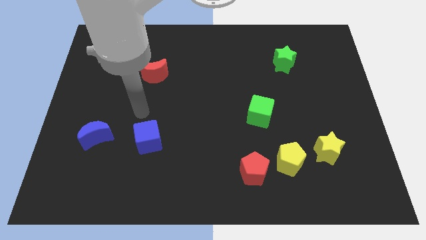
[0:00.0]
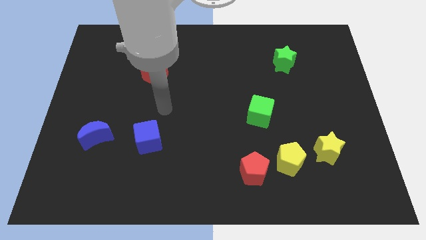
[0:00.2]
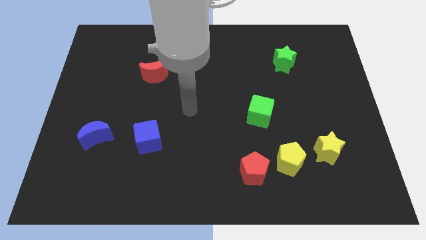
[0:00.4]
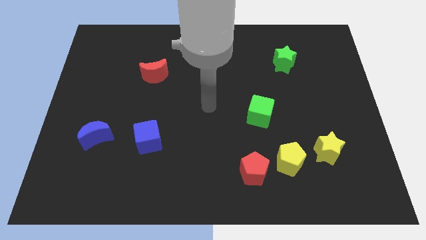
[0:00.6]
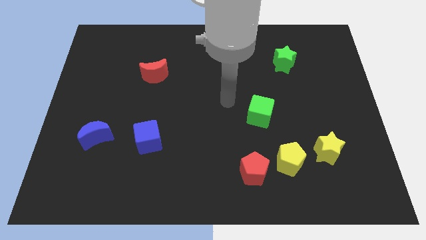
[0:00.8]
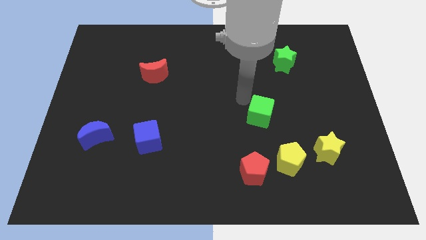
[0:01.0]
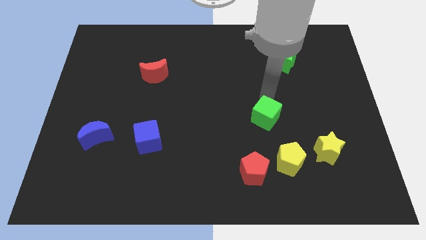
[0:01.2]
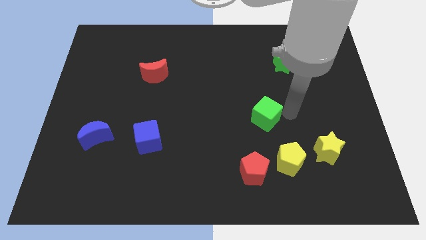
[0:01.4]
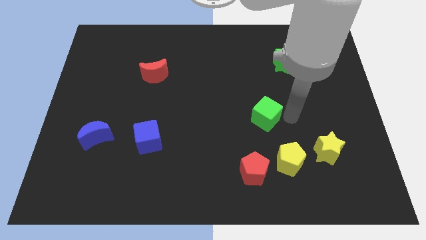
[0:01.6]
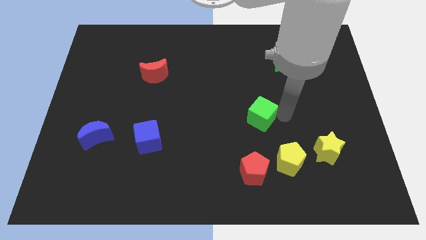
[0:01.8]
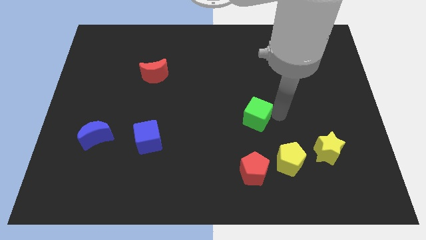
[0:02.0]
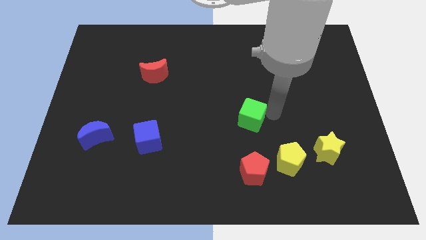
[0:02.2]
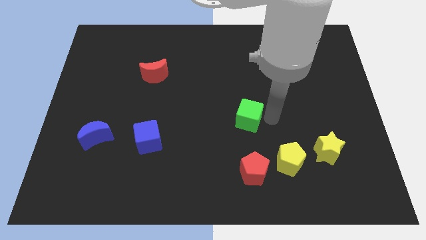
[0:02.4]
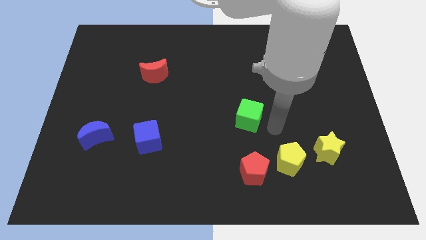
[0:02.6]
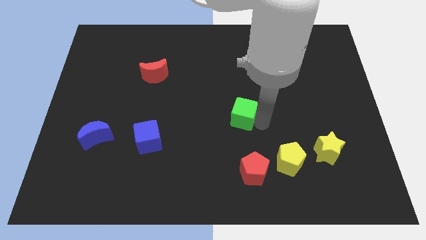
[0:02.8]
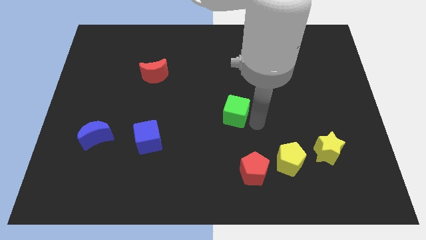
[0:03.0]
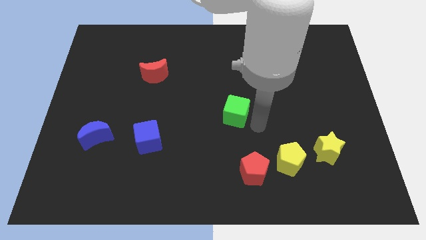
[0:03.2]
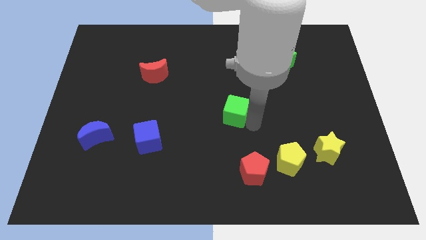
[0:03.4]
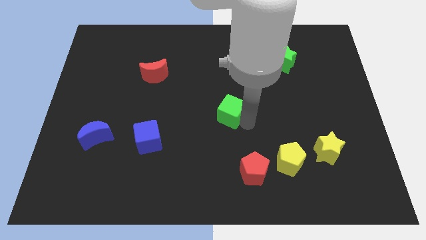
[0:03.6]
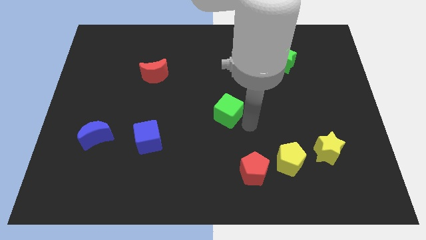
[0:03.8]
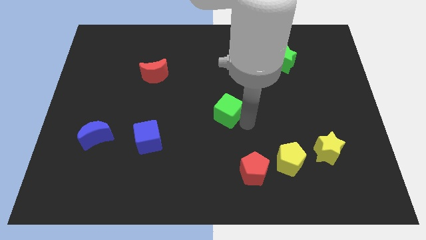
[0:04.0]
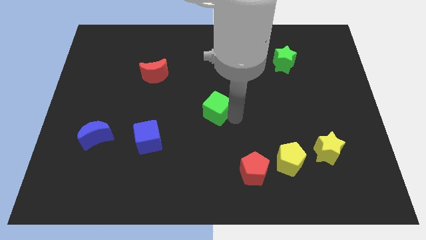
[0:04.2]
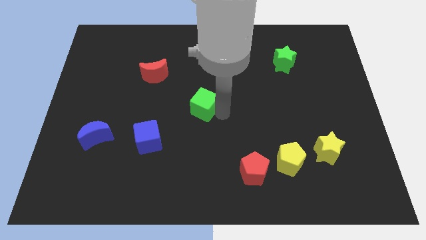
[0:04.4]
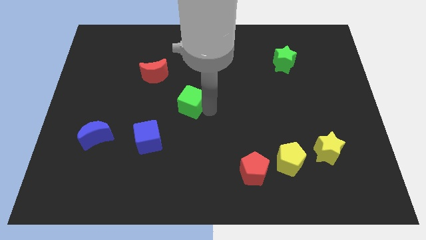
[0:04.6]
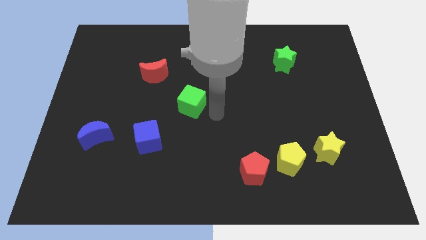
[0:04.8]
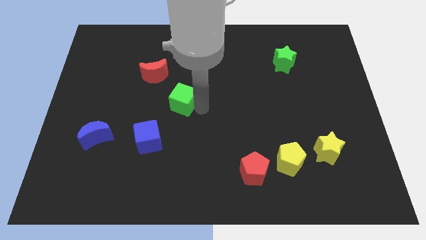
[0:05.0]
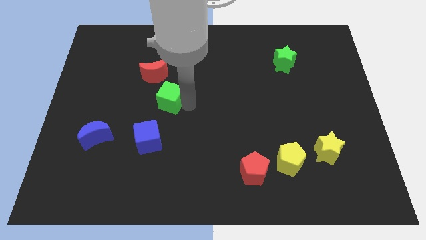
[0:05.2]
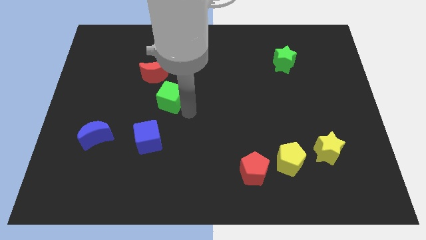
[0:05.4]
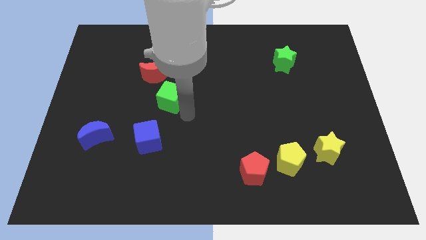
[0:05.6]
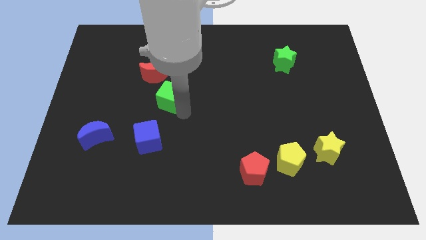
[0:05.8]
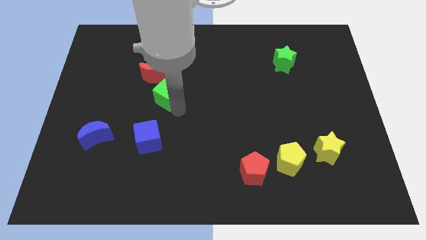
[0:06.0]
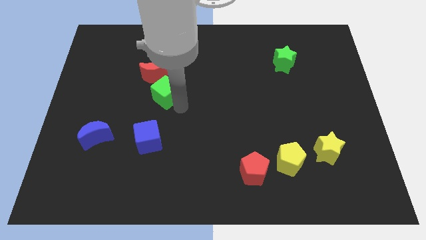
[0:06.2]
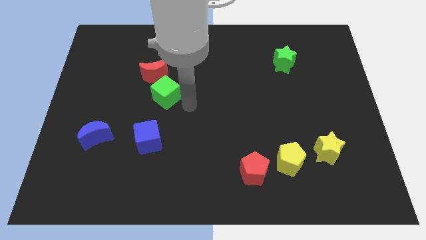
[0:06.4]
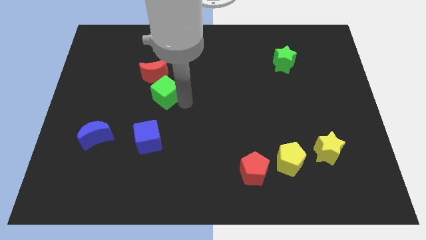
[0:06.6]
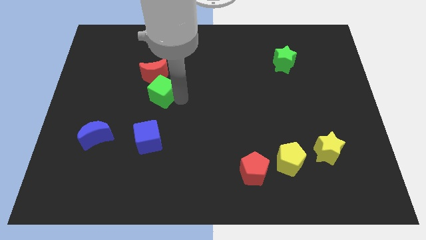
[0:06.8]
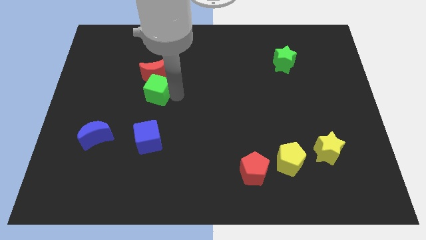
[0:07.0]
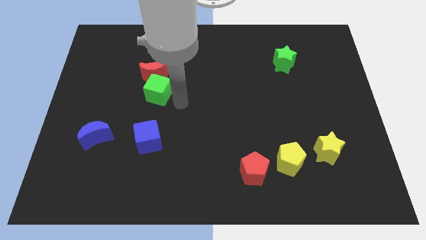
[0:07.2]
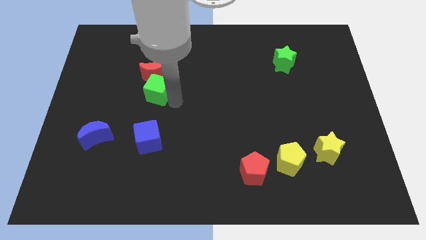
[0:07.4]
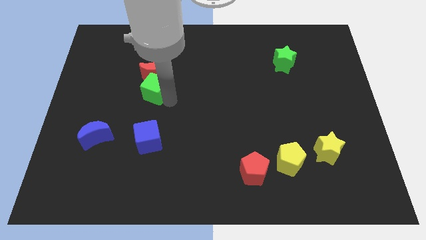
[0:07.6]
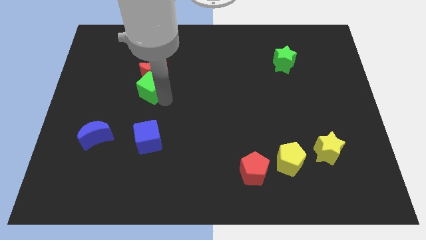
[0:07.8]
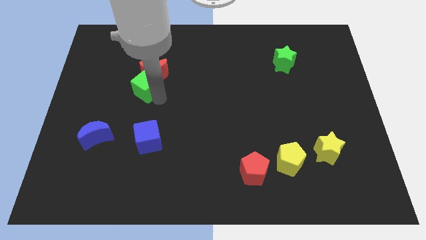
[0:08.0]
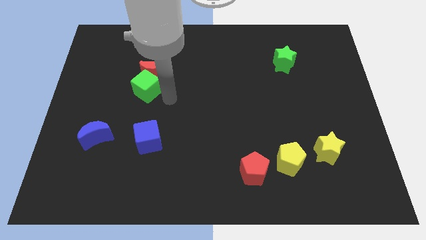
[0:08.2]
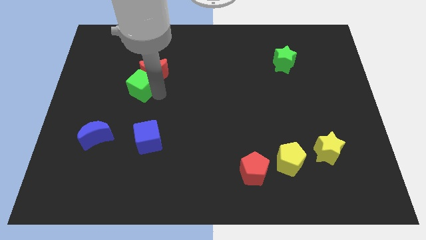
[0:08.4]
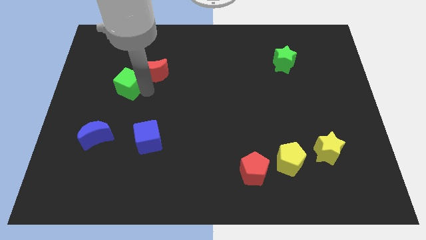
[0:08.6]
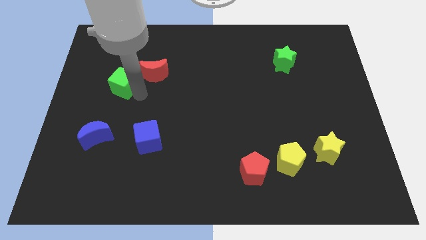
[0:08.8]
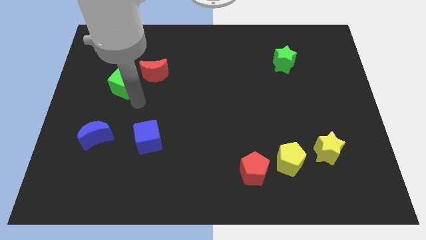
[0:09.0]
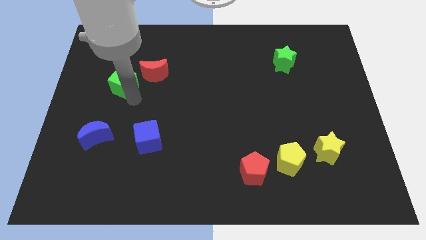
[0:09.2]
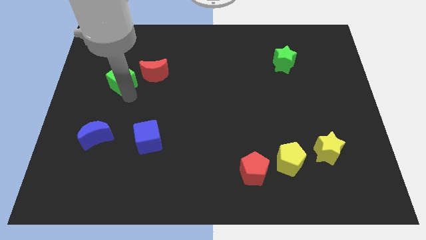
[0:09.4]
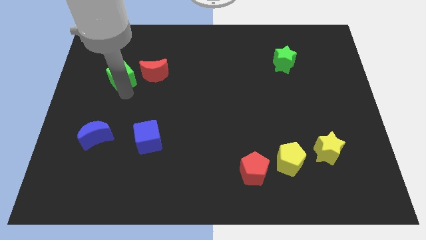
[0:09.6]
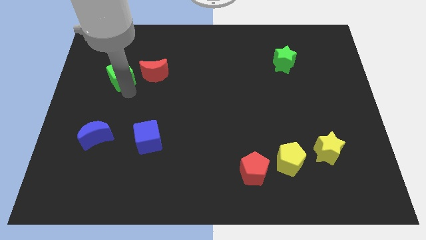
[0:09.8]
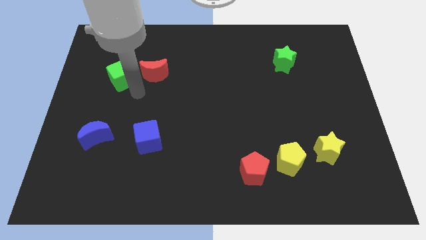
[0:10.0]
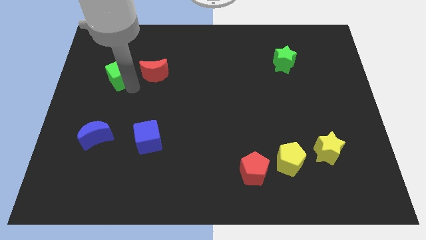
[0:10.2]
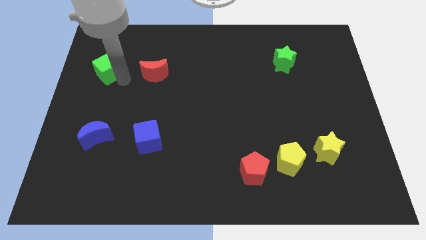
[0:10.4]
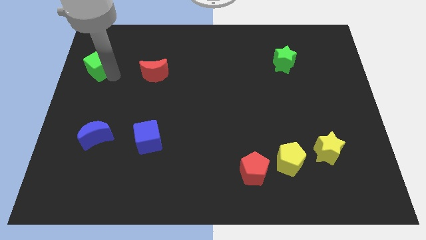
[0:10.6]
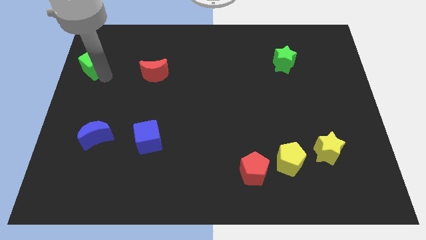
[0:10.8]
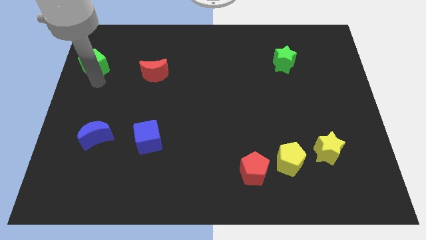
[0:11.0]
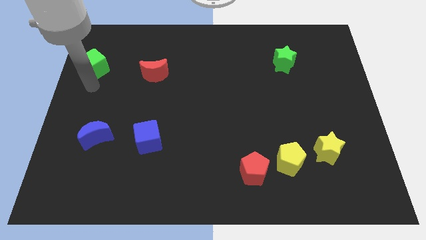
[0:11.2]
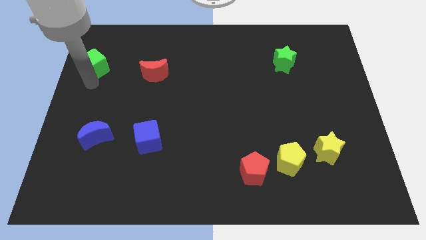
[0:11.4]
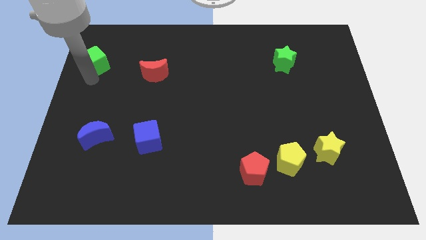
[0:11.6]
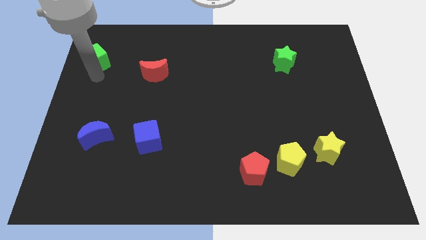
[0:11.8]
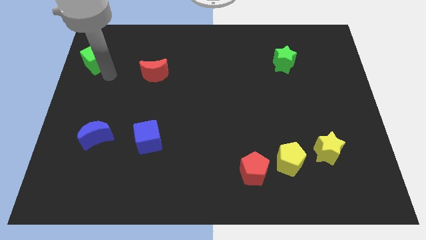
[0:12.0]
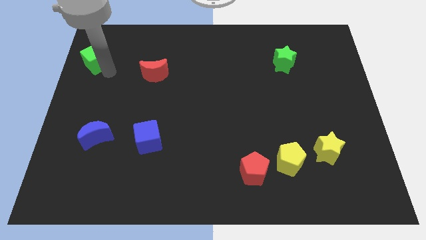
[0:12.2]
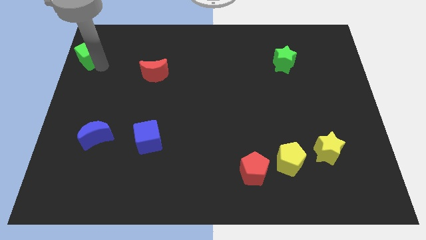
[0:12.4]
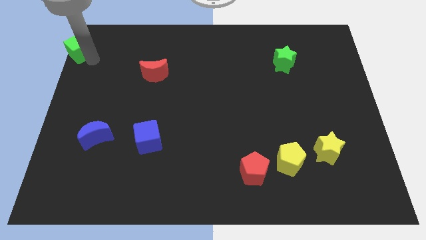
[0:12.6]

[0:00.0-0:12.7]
move the green cube to the top left of the board
